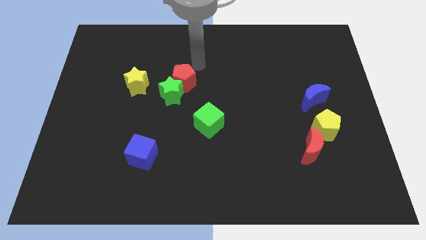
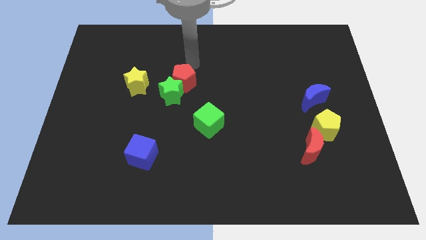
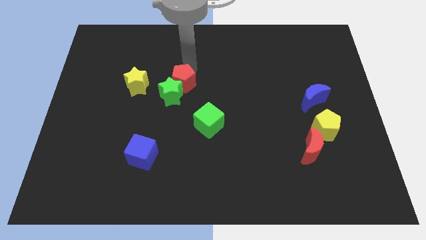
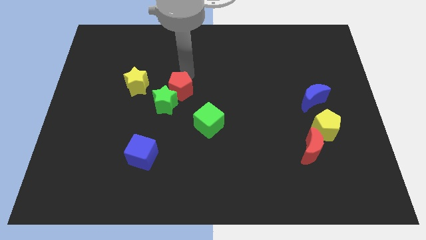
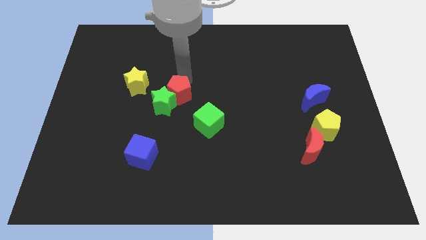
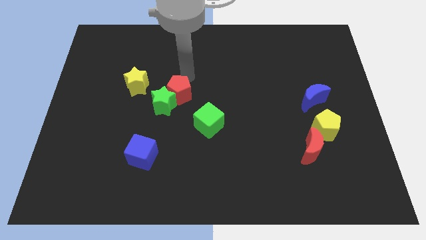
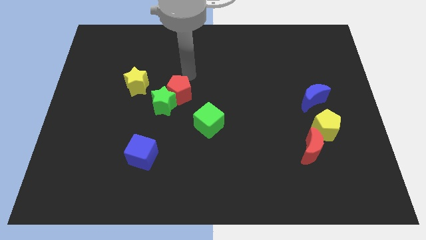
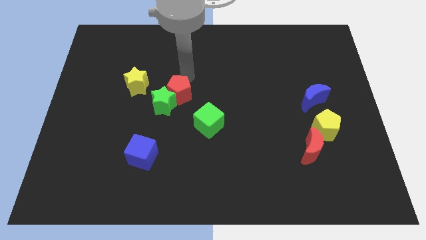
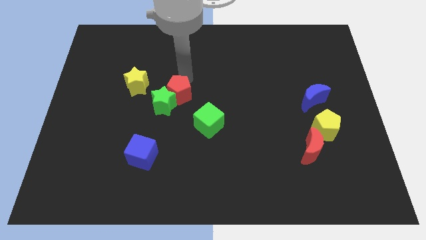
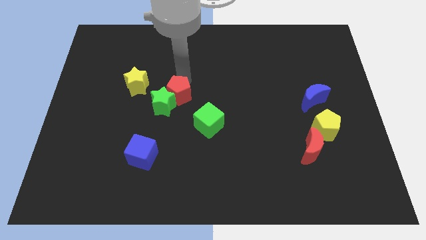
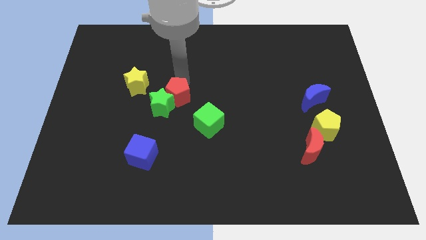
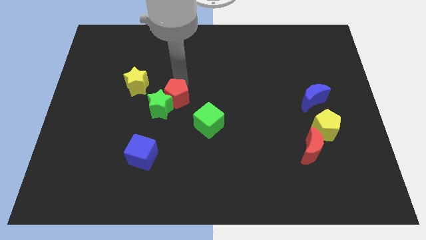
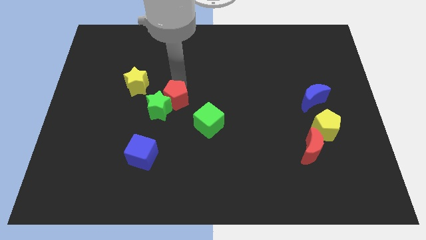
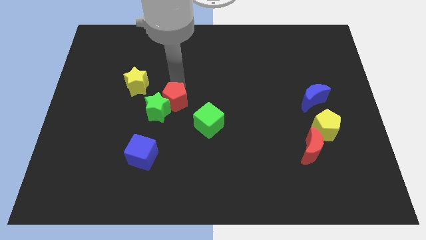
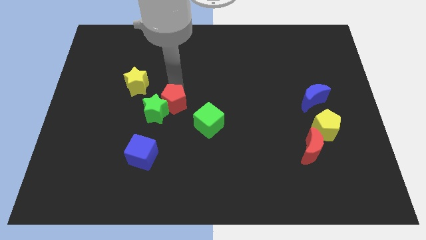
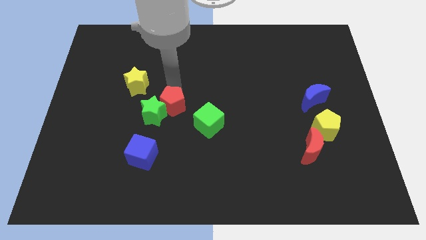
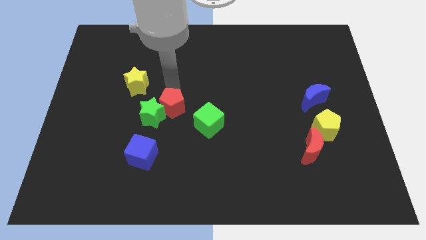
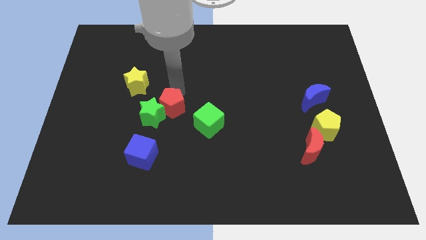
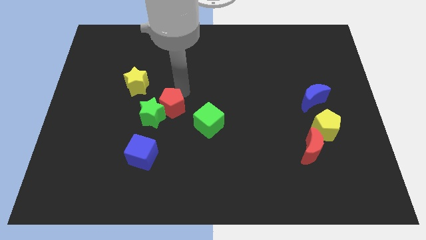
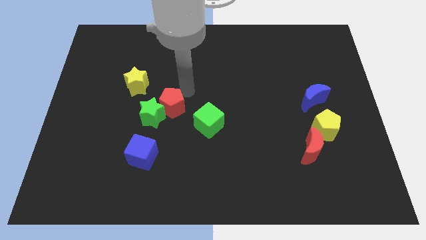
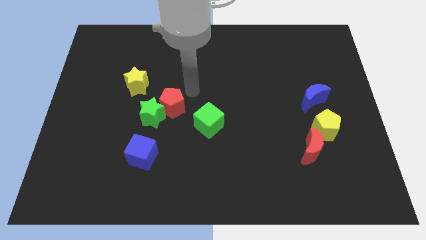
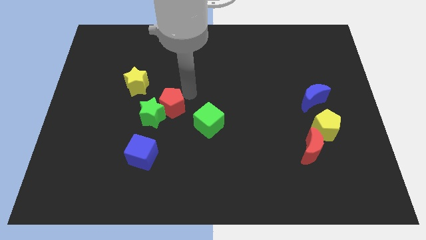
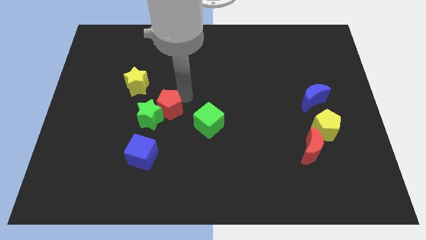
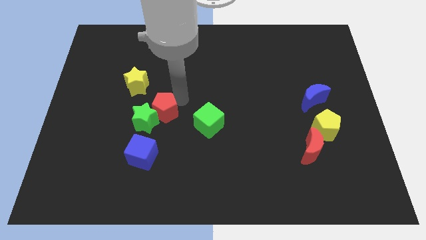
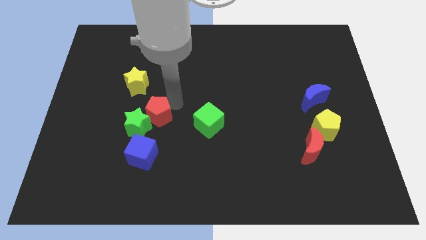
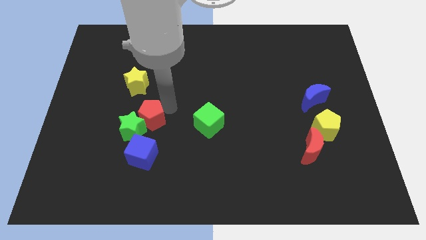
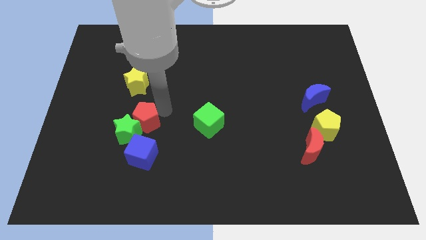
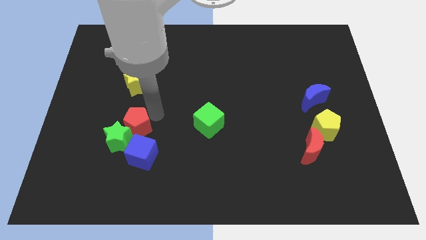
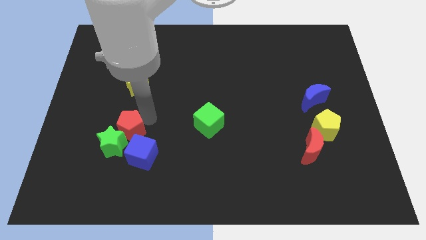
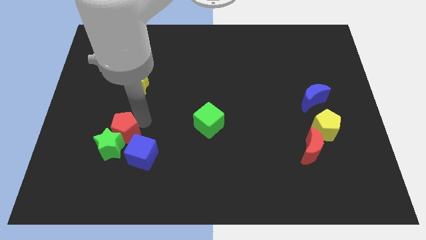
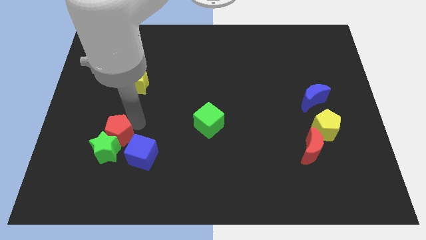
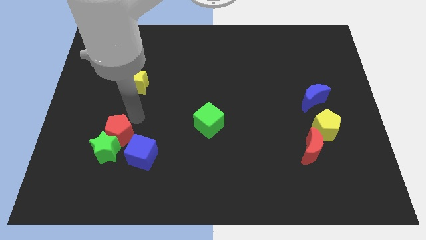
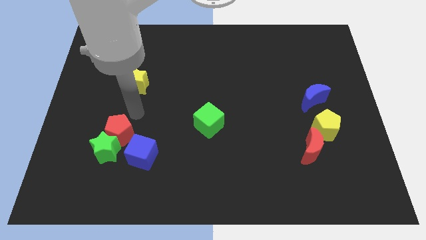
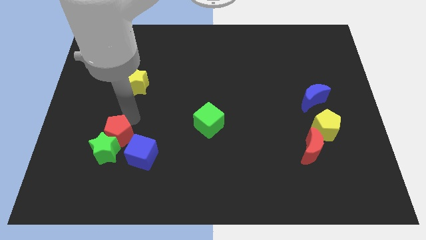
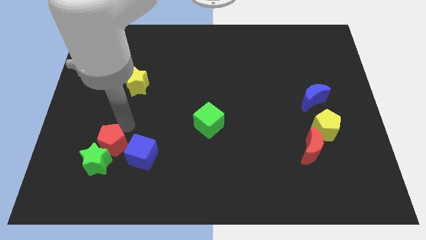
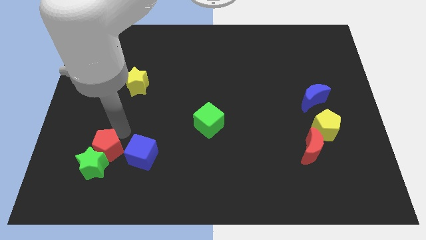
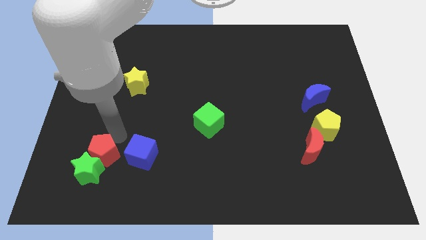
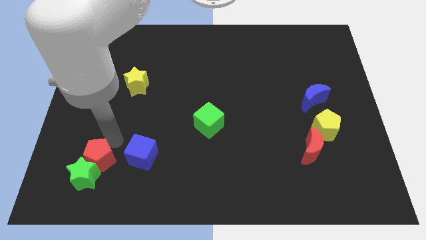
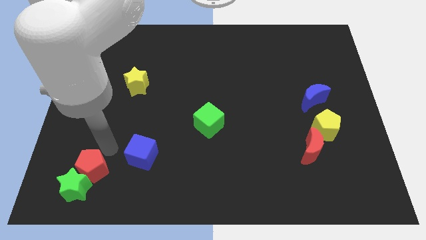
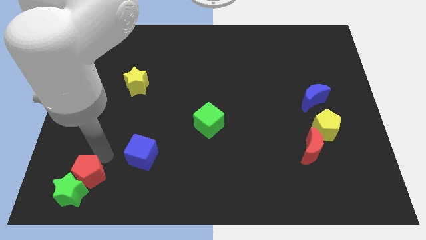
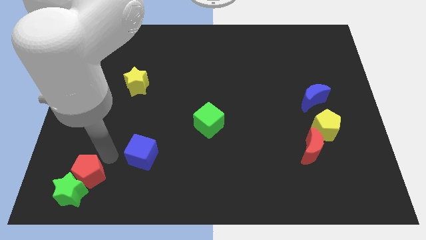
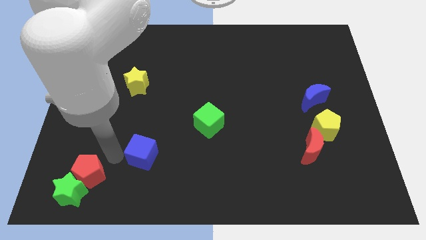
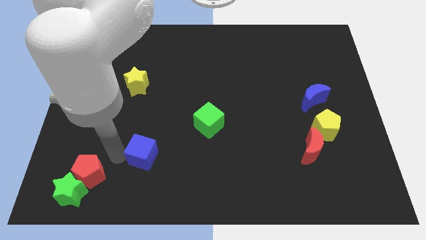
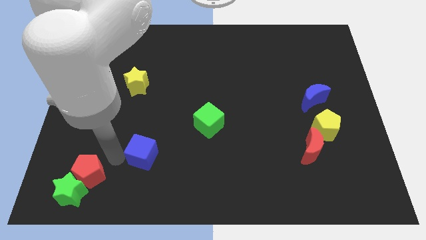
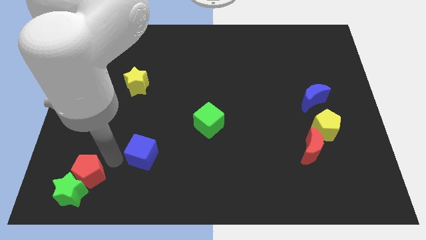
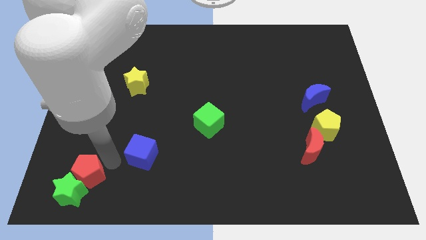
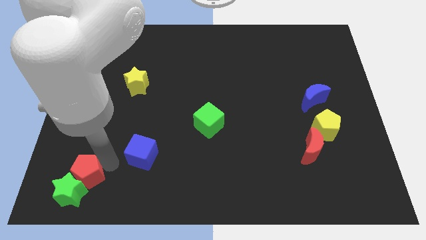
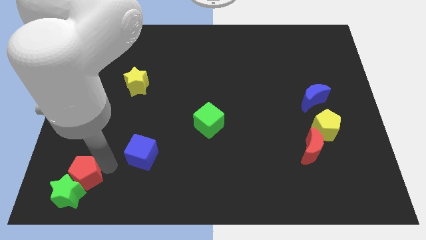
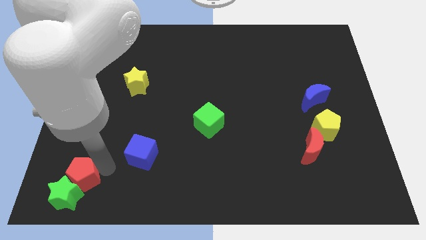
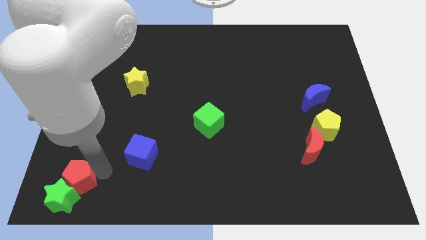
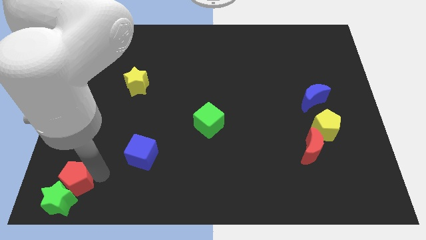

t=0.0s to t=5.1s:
move the red pentagon to the bottom left corner

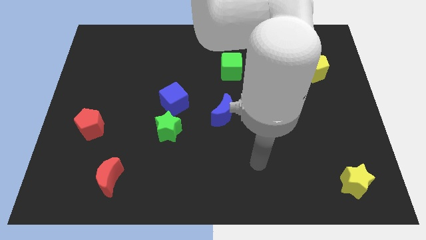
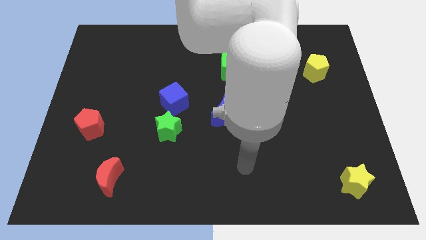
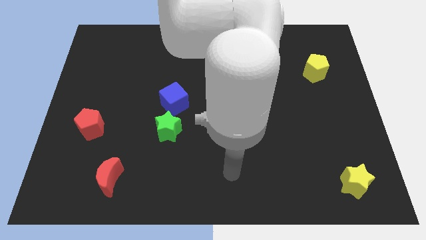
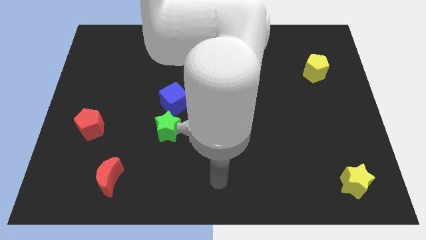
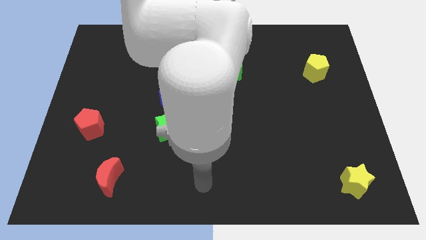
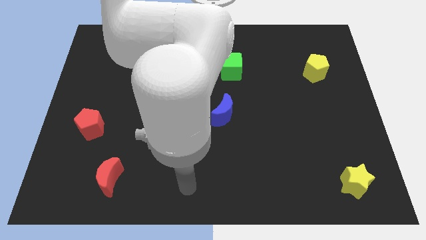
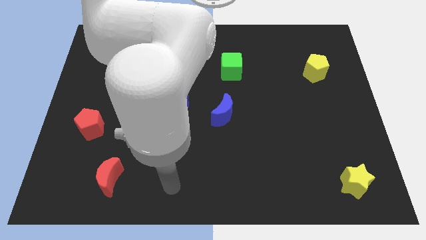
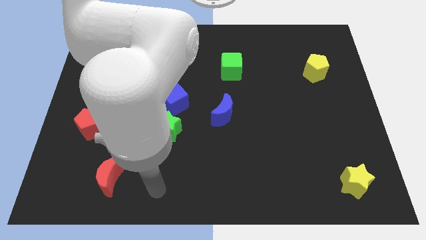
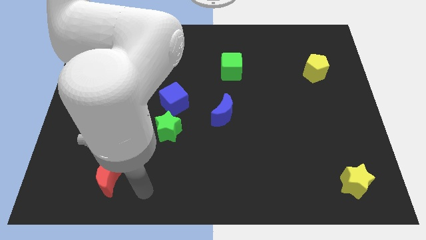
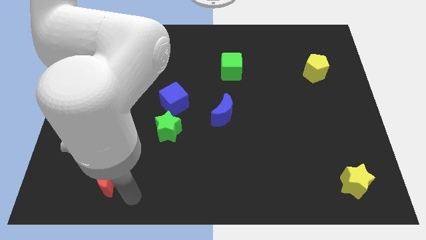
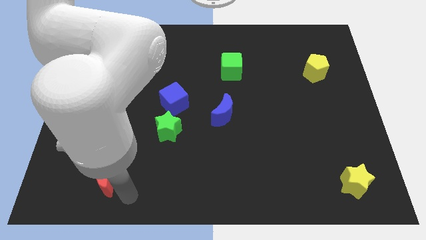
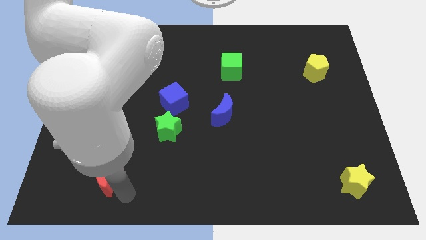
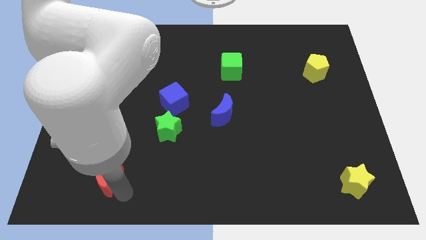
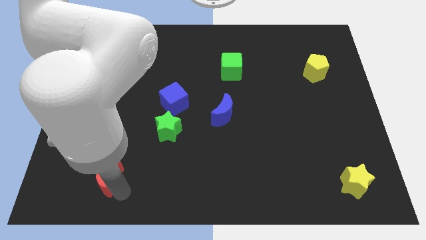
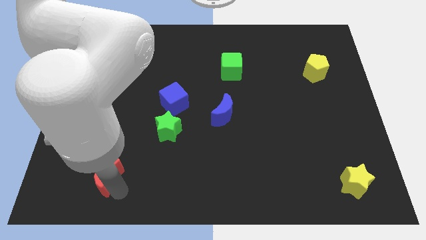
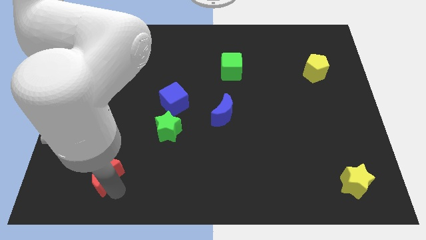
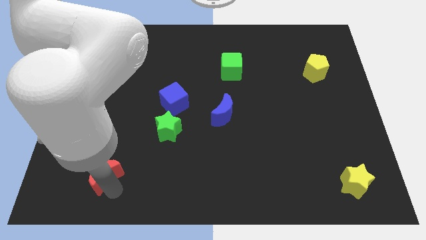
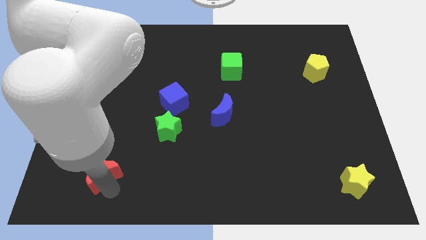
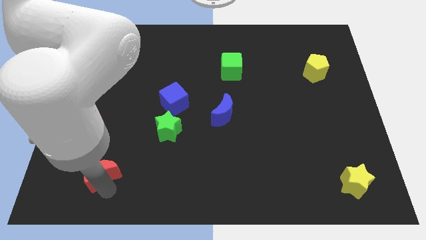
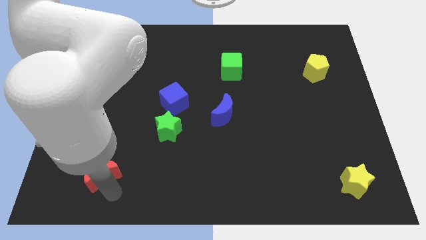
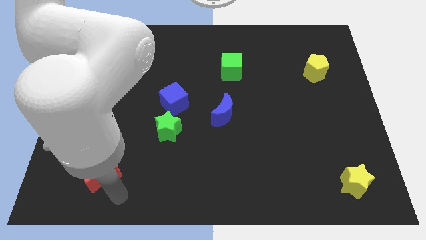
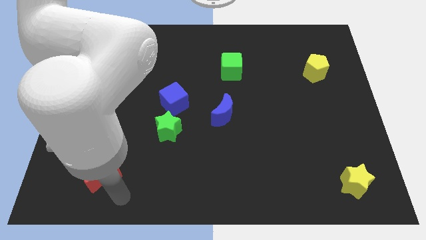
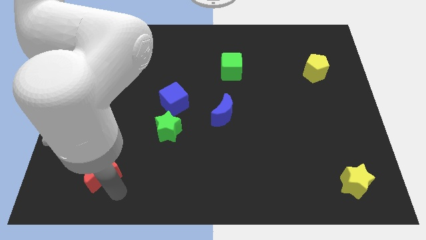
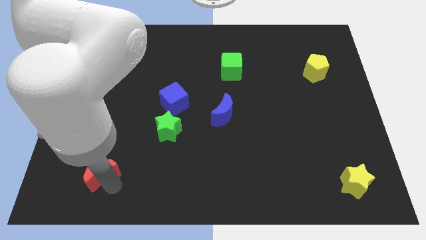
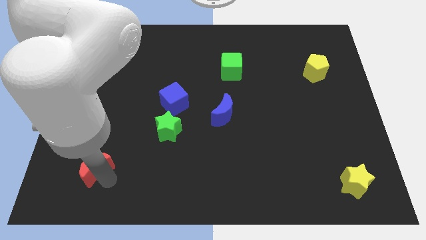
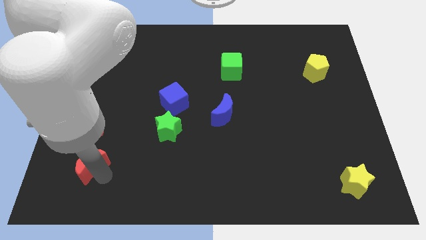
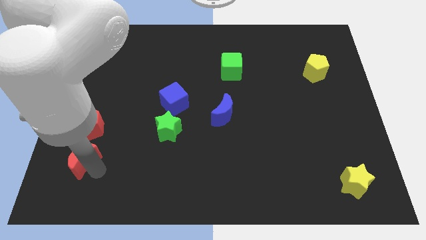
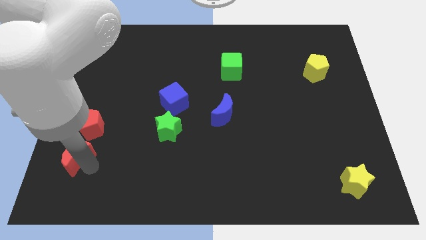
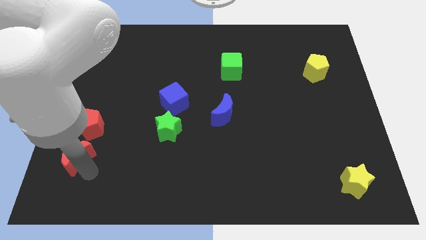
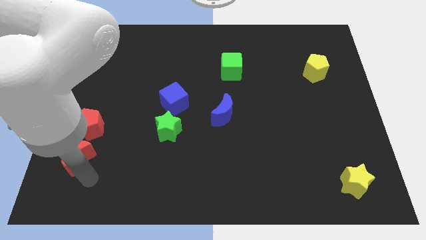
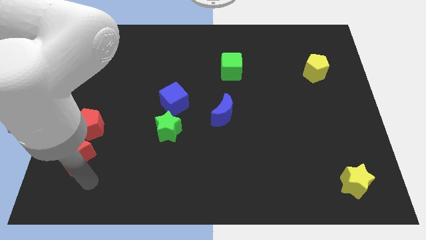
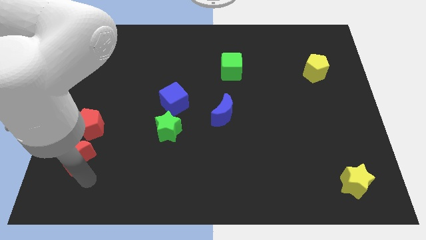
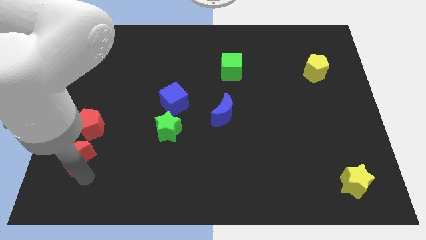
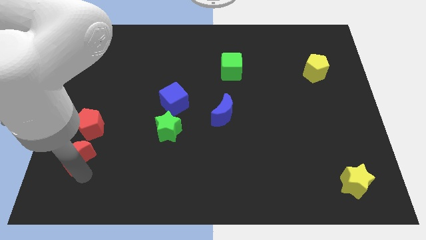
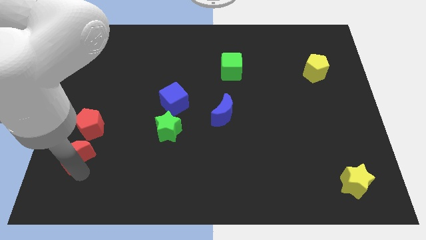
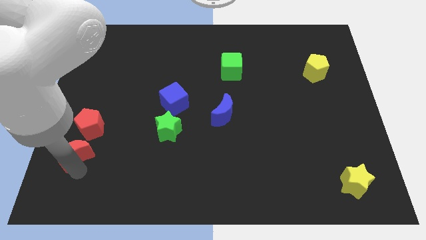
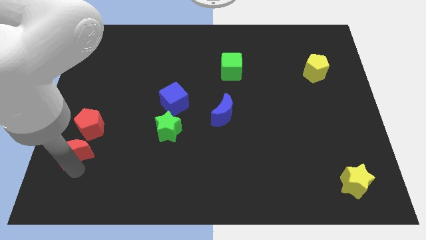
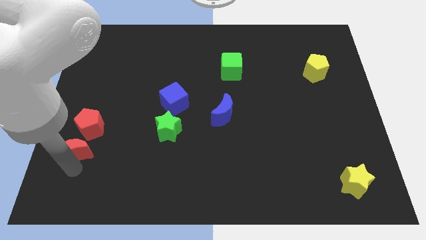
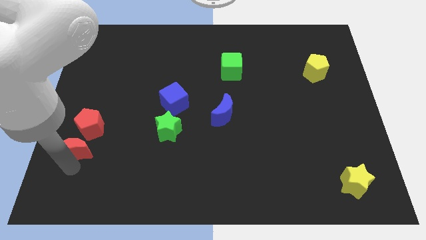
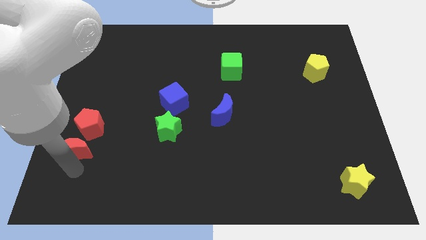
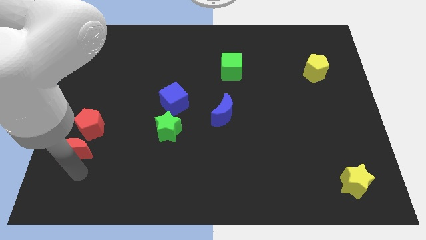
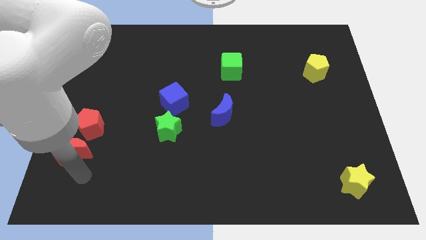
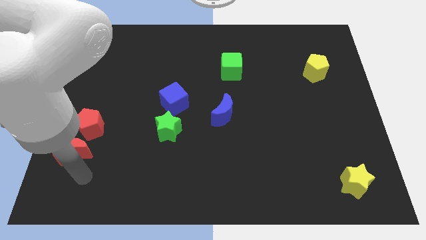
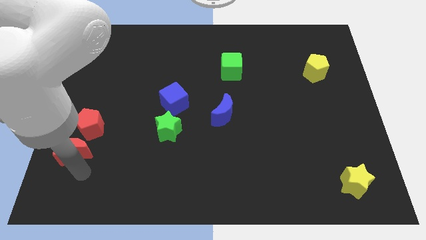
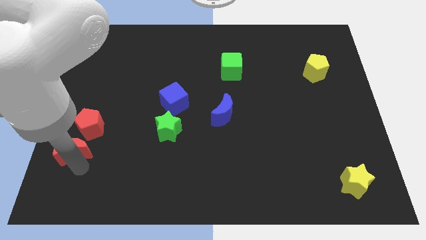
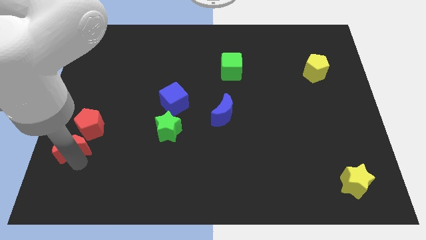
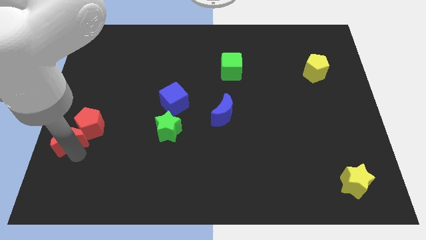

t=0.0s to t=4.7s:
push the red moon to the left side
